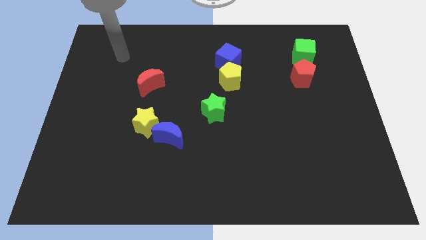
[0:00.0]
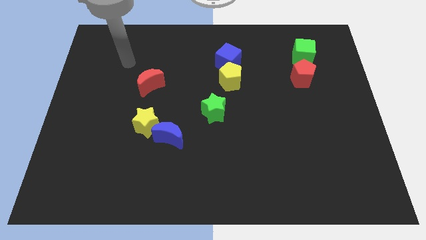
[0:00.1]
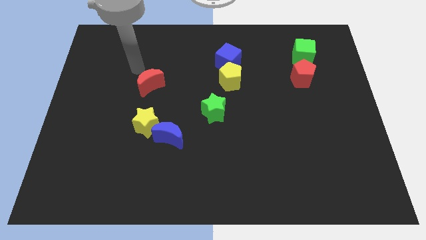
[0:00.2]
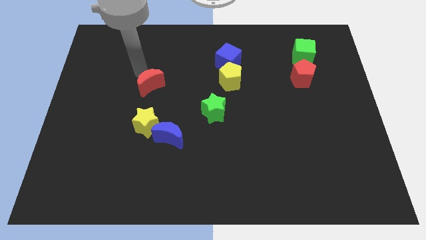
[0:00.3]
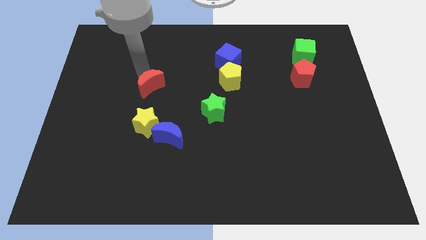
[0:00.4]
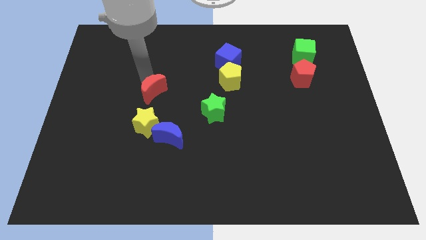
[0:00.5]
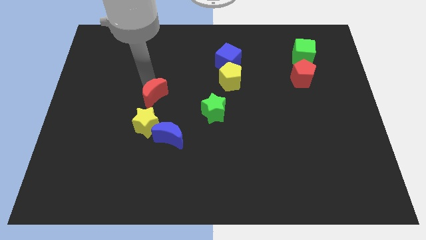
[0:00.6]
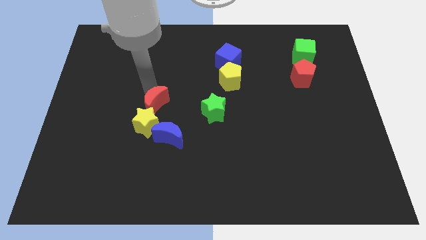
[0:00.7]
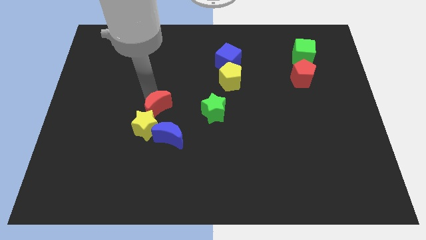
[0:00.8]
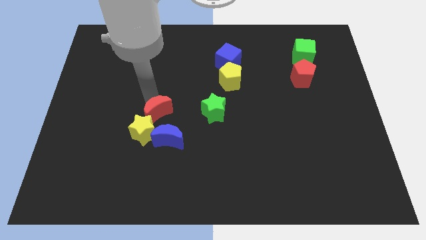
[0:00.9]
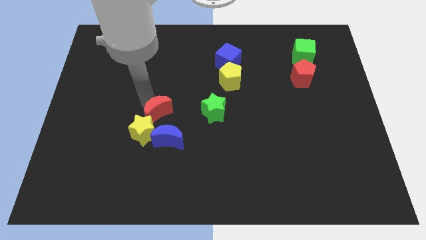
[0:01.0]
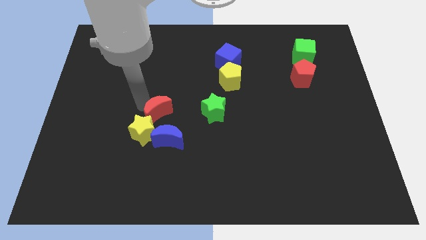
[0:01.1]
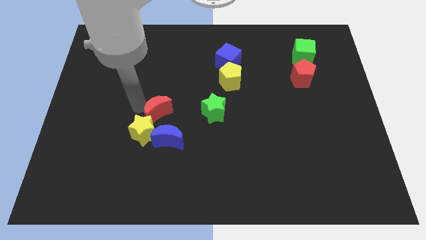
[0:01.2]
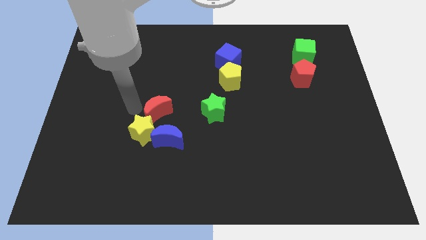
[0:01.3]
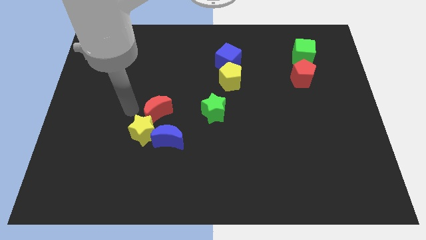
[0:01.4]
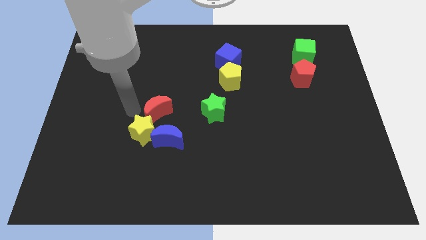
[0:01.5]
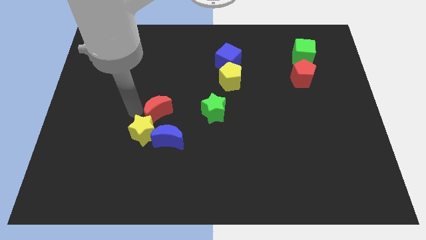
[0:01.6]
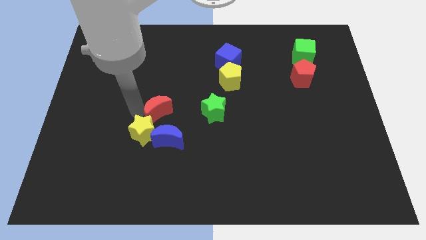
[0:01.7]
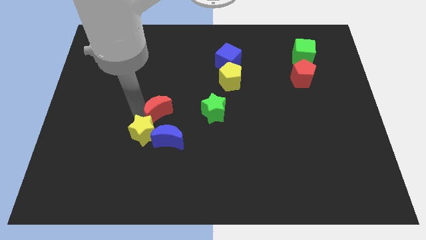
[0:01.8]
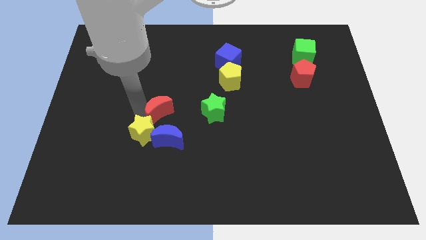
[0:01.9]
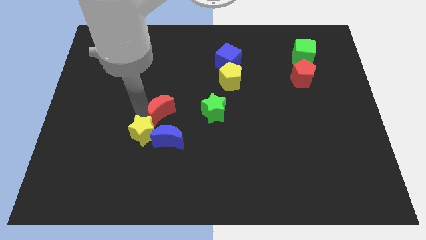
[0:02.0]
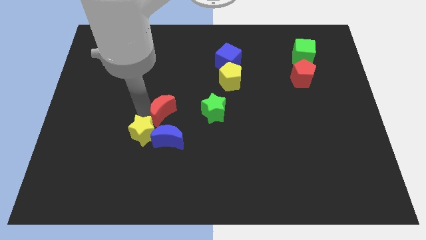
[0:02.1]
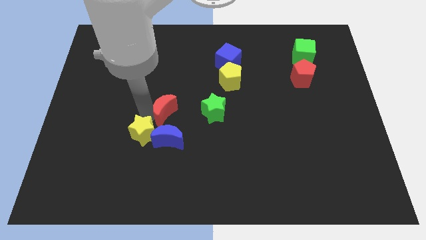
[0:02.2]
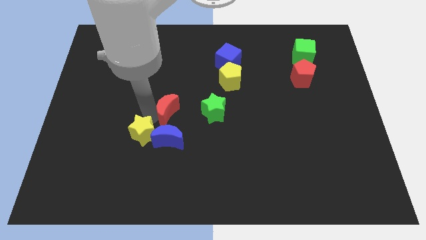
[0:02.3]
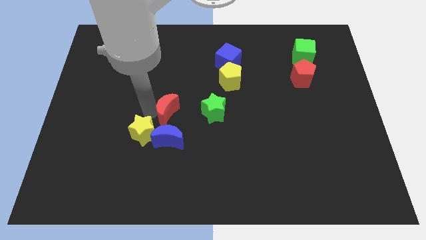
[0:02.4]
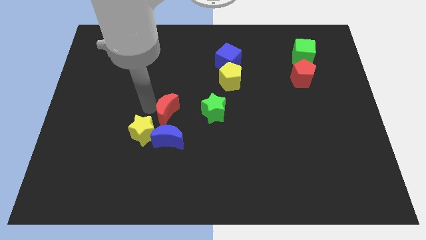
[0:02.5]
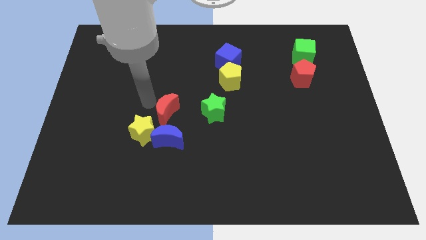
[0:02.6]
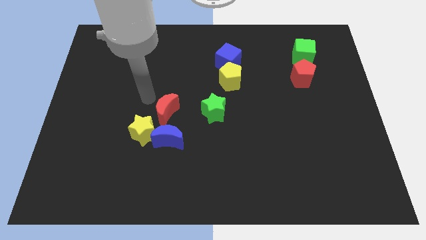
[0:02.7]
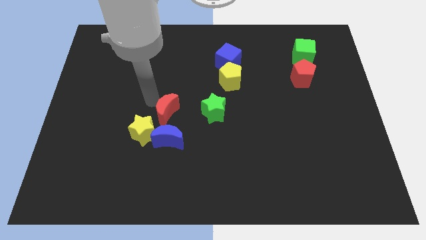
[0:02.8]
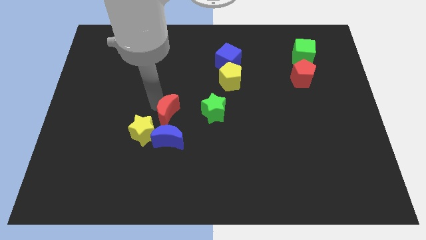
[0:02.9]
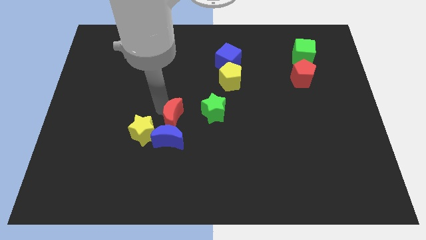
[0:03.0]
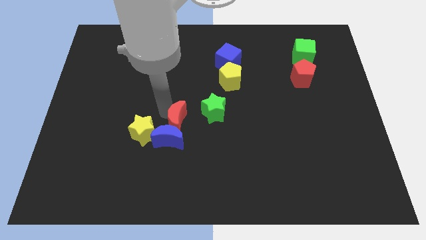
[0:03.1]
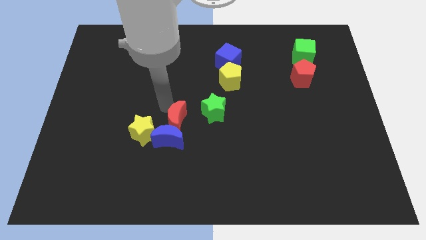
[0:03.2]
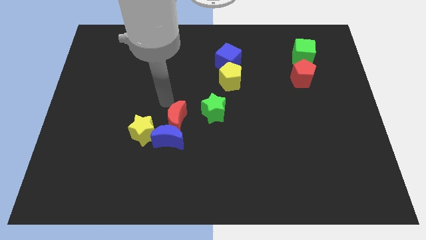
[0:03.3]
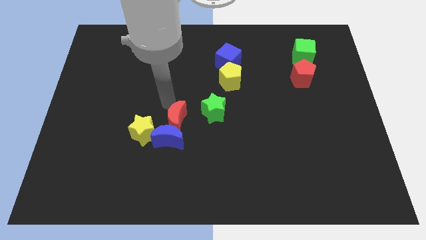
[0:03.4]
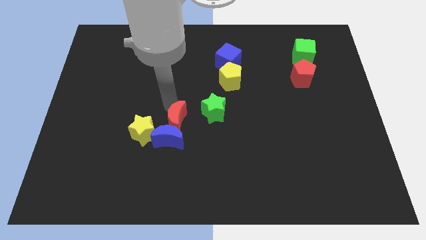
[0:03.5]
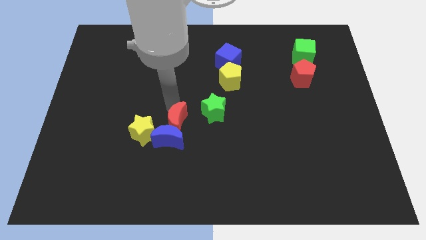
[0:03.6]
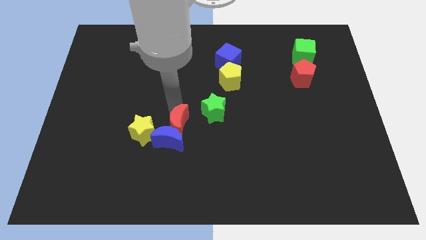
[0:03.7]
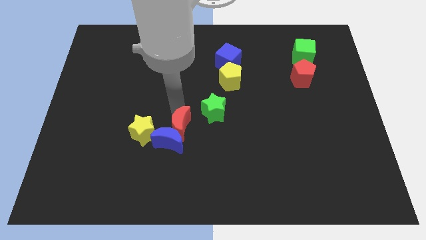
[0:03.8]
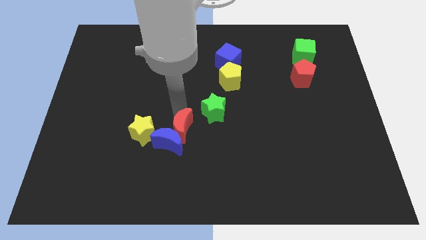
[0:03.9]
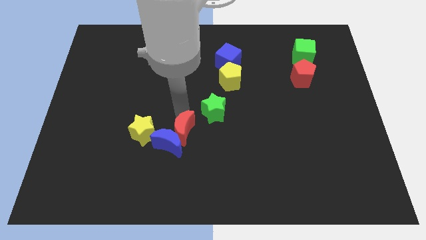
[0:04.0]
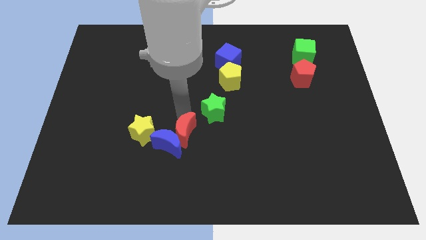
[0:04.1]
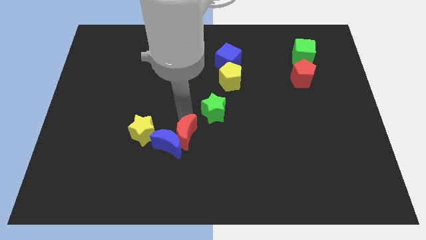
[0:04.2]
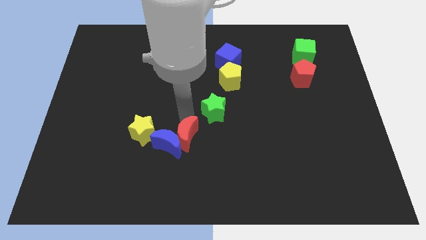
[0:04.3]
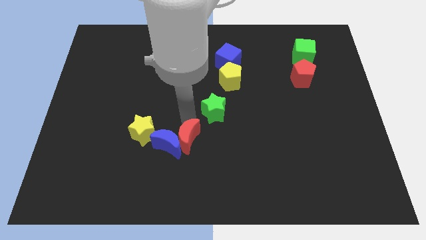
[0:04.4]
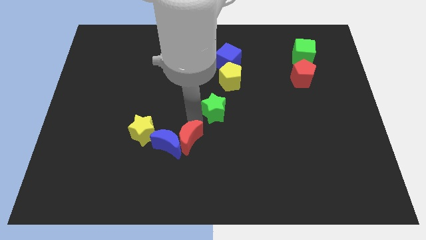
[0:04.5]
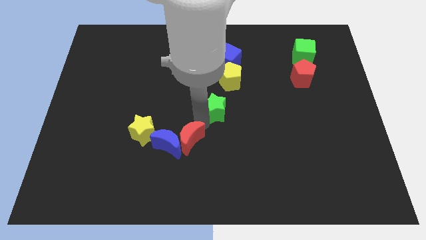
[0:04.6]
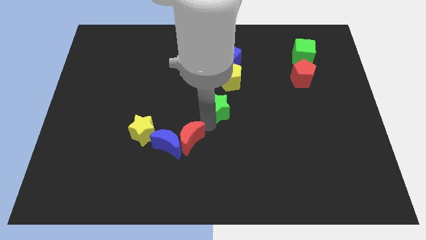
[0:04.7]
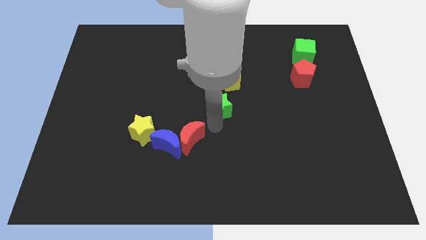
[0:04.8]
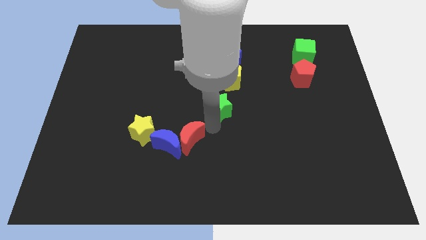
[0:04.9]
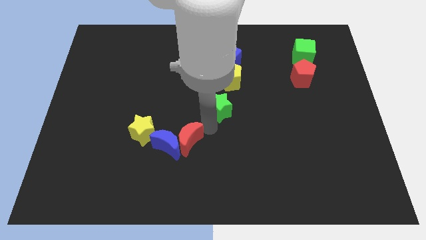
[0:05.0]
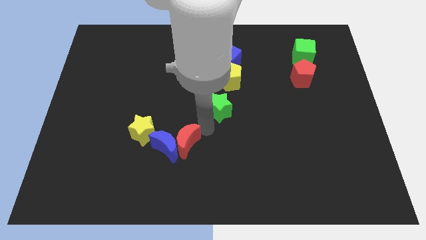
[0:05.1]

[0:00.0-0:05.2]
slide the red moon diagonally down and to the right of the yellow star
